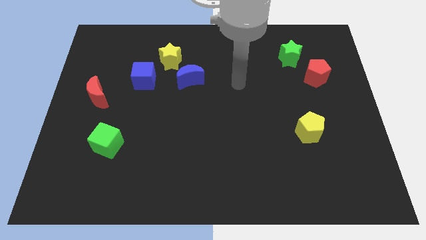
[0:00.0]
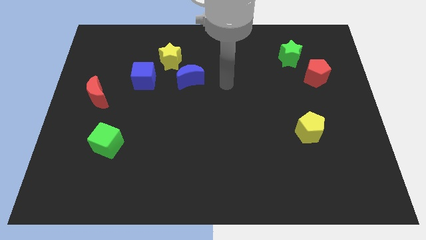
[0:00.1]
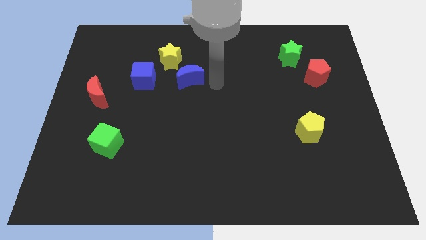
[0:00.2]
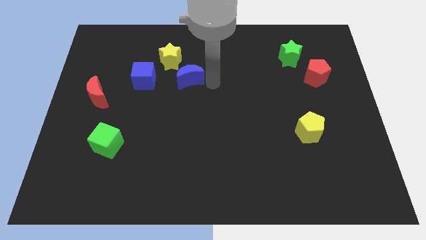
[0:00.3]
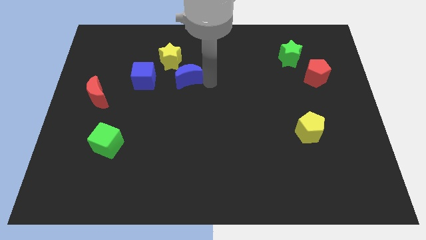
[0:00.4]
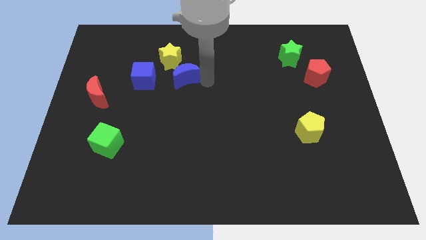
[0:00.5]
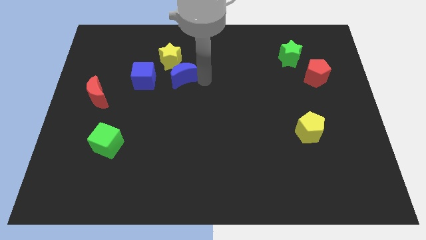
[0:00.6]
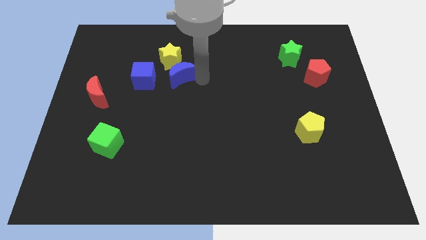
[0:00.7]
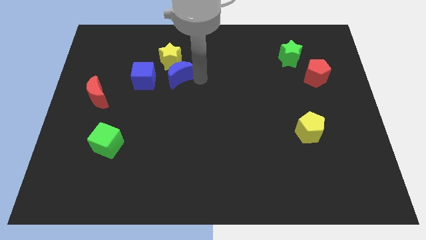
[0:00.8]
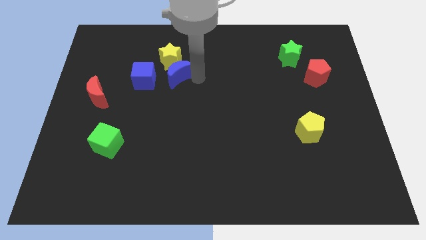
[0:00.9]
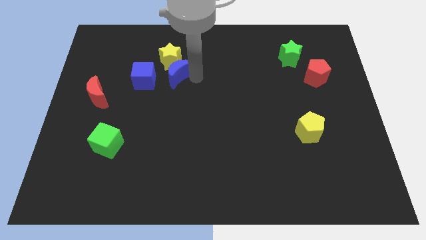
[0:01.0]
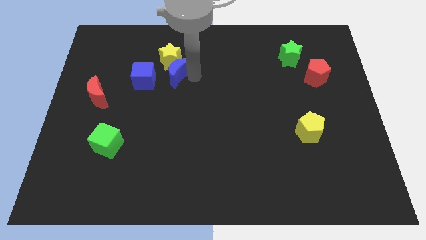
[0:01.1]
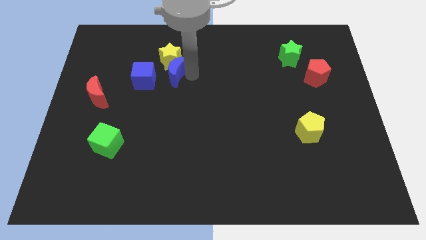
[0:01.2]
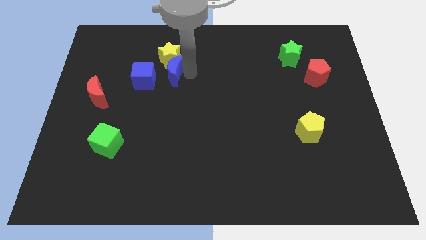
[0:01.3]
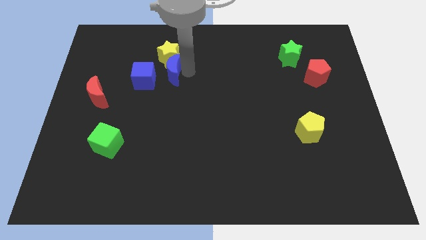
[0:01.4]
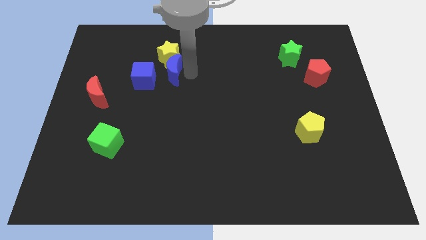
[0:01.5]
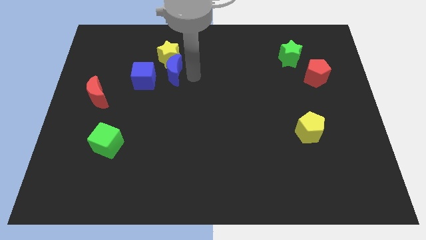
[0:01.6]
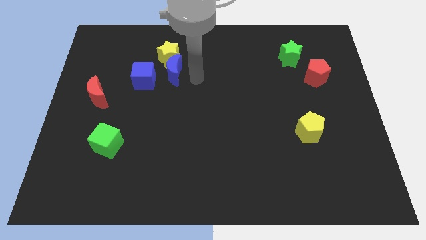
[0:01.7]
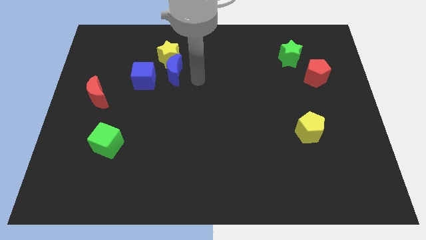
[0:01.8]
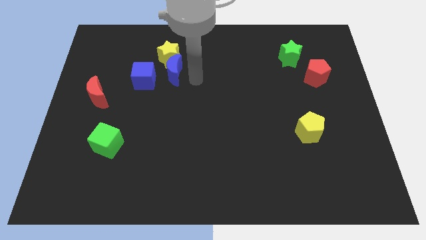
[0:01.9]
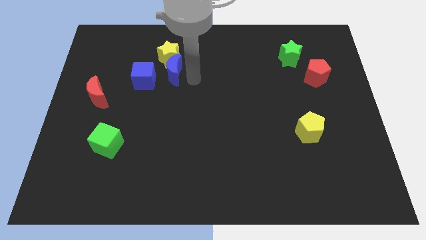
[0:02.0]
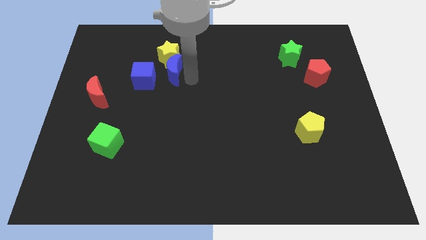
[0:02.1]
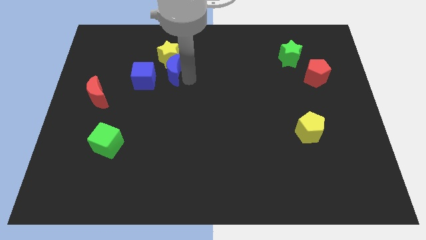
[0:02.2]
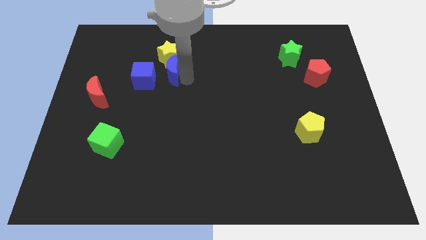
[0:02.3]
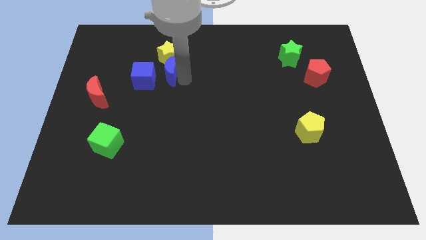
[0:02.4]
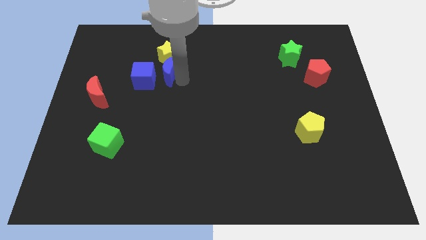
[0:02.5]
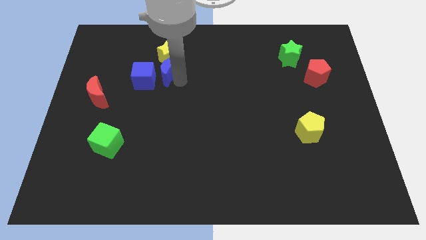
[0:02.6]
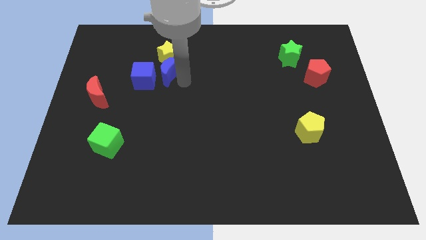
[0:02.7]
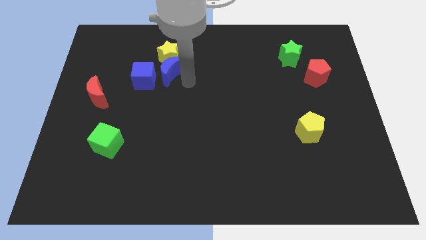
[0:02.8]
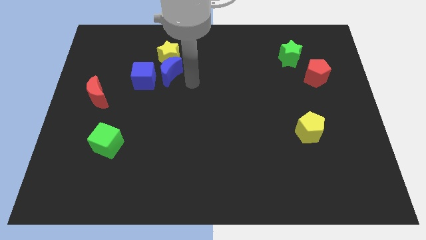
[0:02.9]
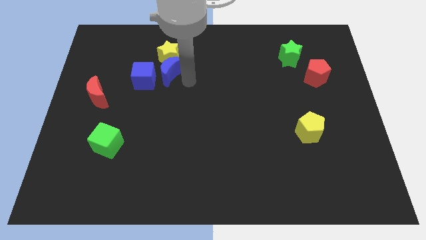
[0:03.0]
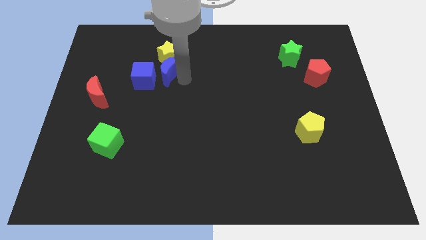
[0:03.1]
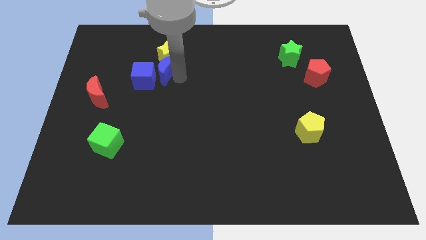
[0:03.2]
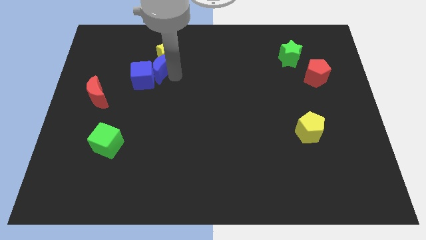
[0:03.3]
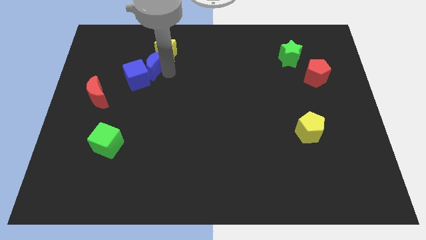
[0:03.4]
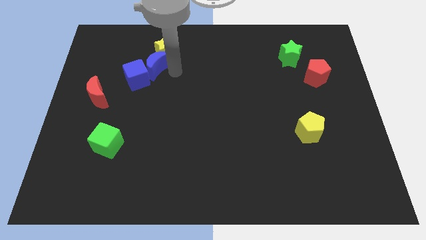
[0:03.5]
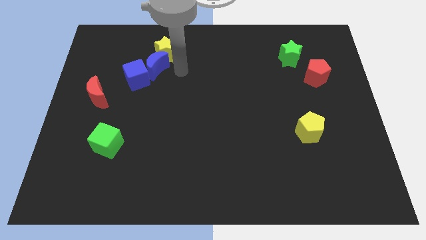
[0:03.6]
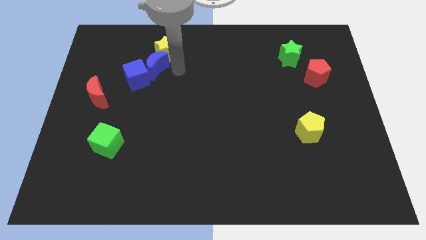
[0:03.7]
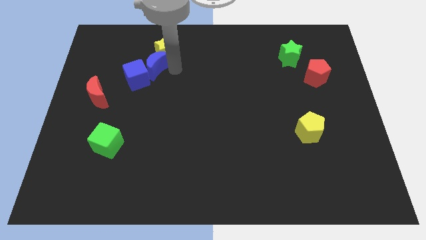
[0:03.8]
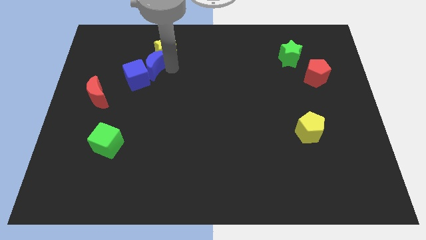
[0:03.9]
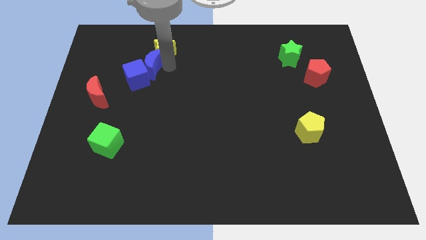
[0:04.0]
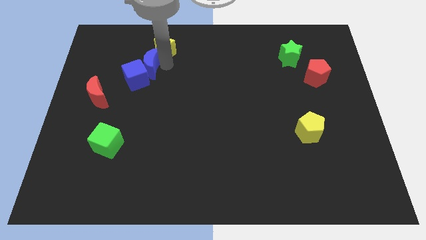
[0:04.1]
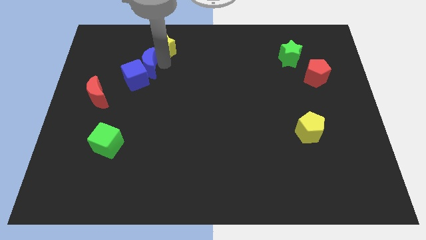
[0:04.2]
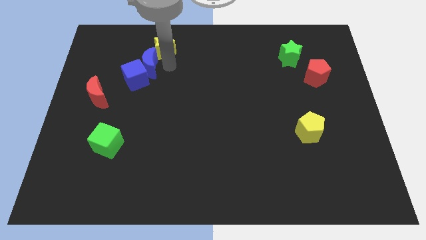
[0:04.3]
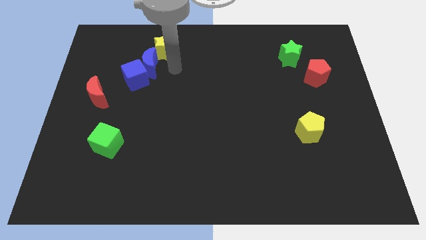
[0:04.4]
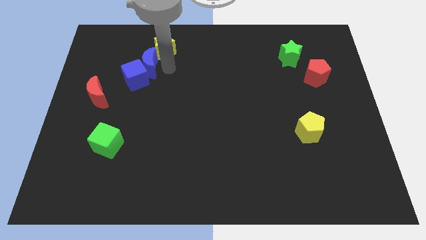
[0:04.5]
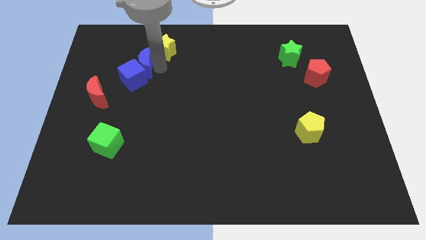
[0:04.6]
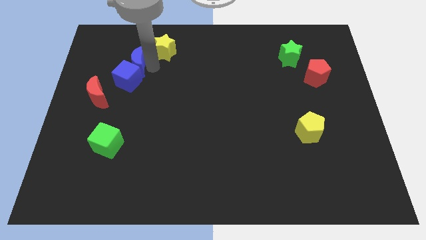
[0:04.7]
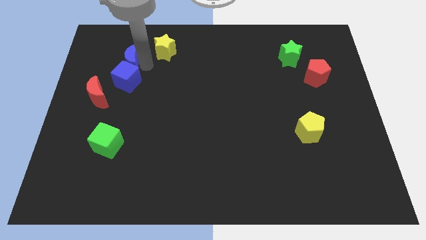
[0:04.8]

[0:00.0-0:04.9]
put the blue moon to the top left of the blue cube

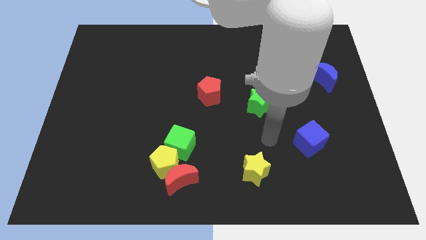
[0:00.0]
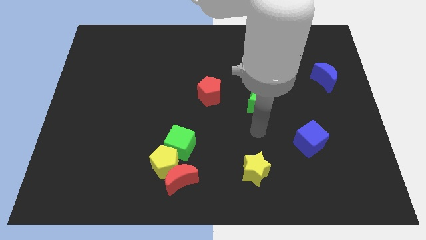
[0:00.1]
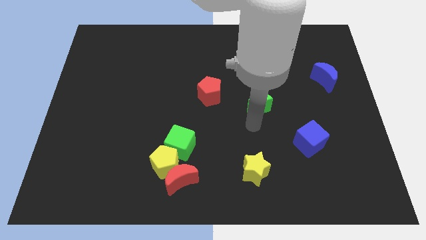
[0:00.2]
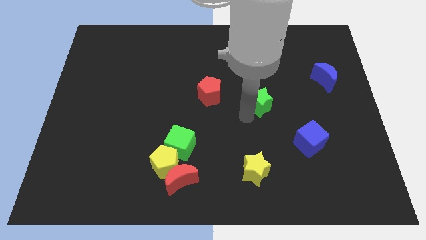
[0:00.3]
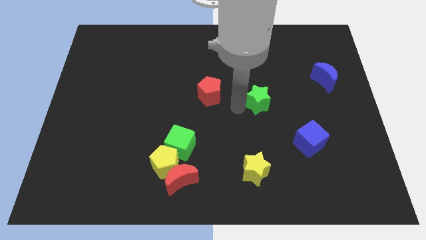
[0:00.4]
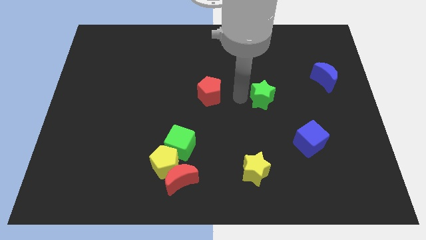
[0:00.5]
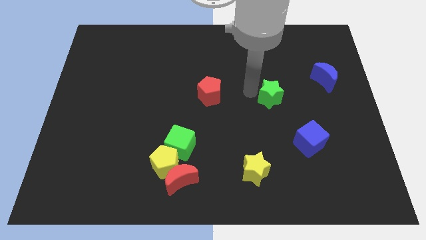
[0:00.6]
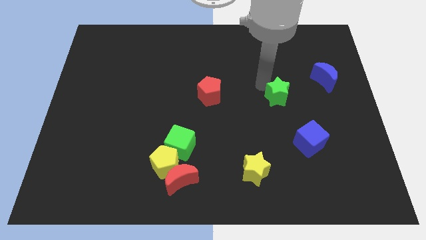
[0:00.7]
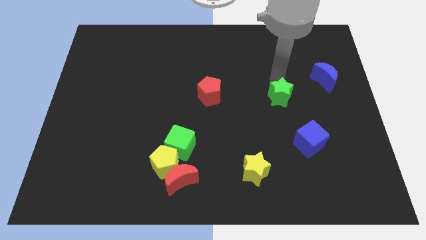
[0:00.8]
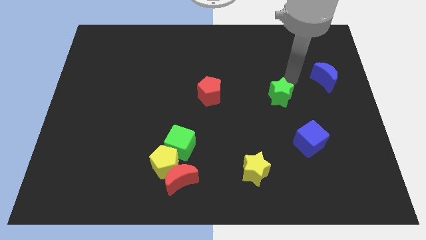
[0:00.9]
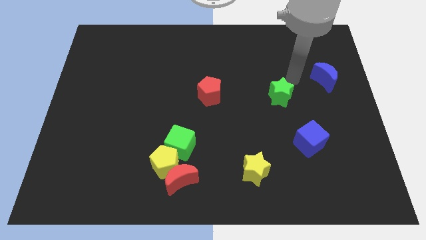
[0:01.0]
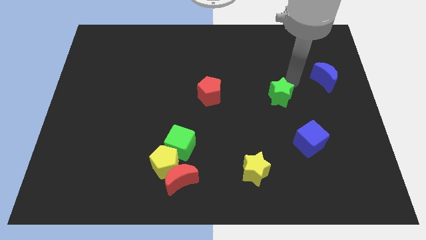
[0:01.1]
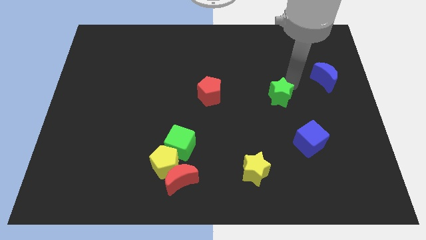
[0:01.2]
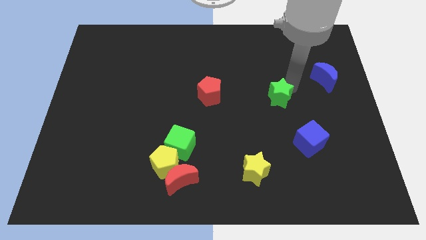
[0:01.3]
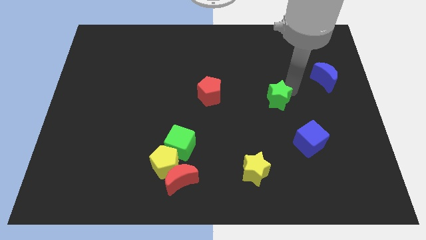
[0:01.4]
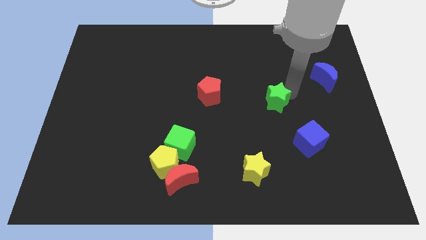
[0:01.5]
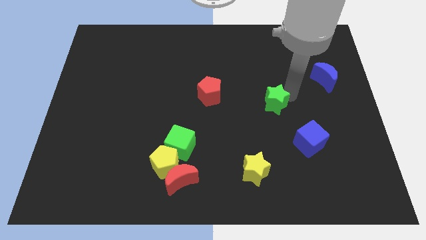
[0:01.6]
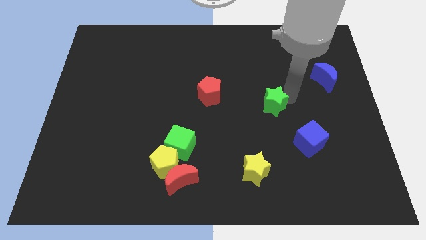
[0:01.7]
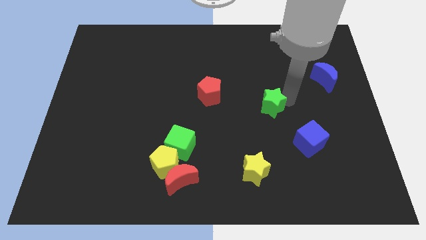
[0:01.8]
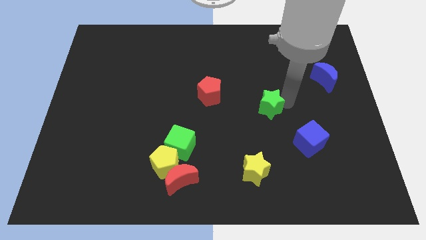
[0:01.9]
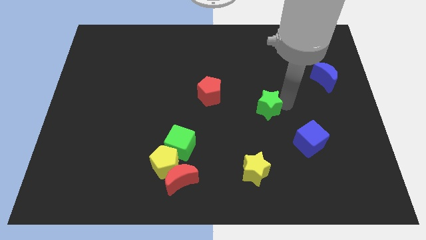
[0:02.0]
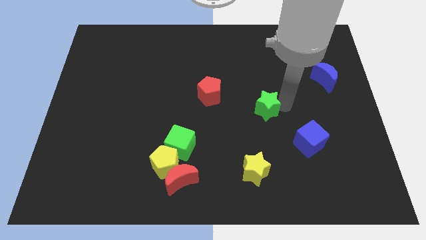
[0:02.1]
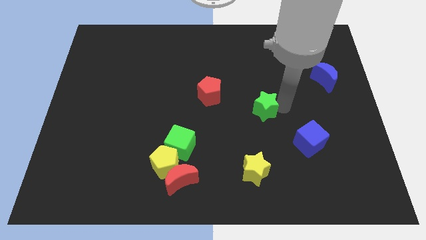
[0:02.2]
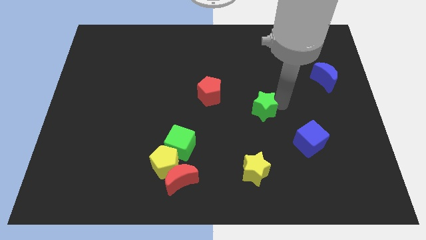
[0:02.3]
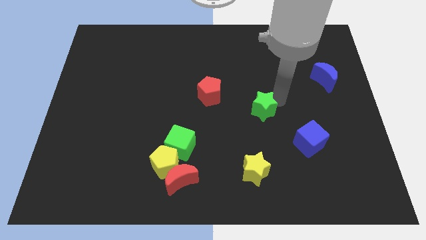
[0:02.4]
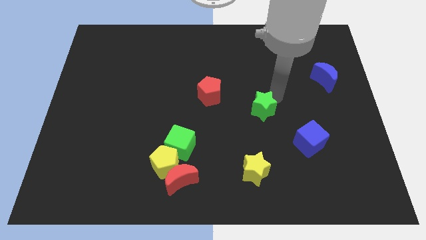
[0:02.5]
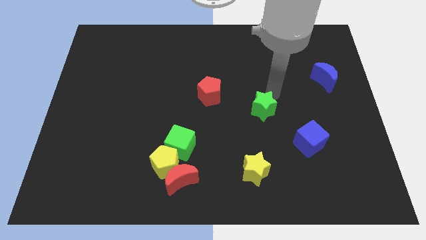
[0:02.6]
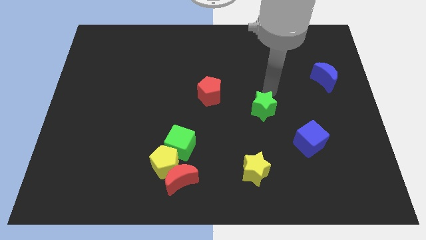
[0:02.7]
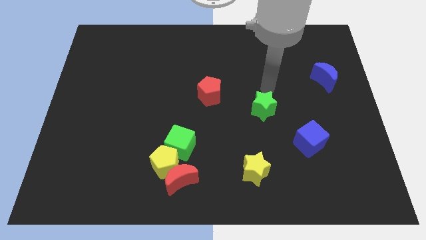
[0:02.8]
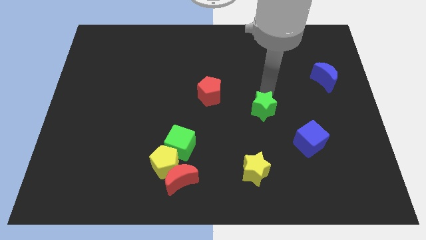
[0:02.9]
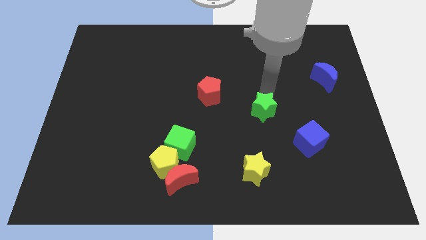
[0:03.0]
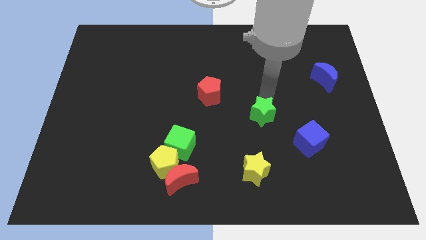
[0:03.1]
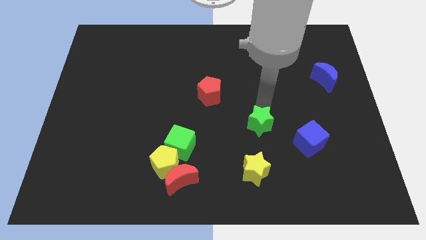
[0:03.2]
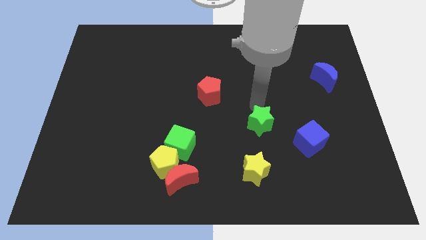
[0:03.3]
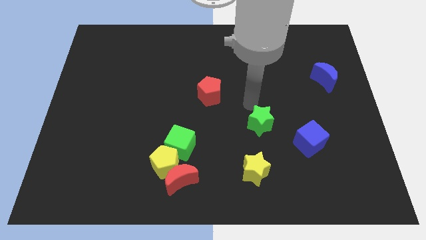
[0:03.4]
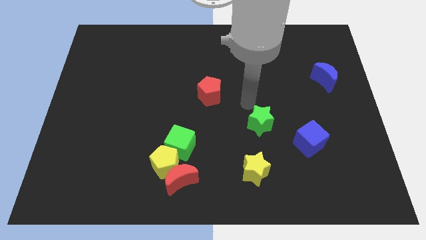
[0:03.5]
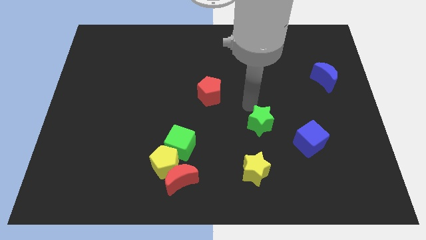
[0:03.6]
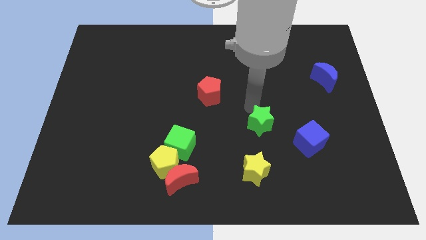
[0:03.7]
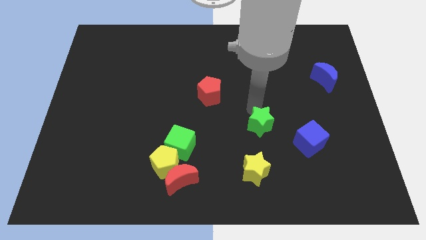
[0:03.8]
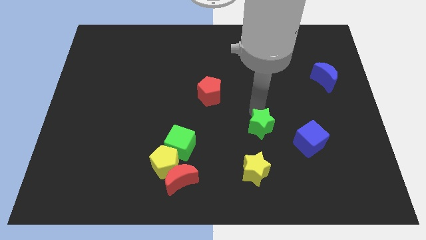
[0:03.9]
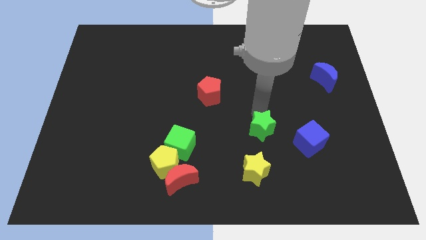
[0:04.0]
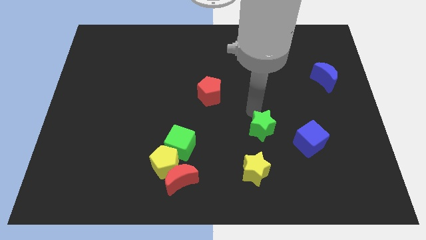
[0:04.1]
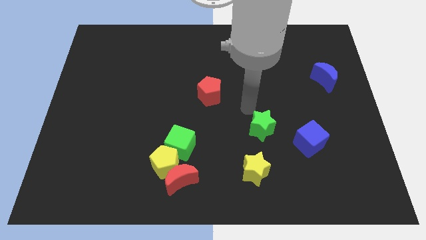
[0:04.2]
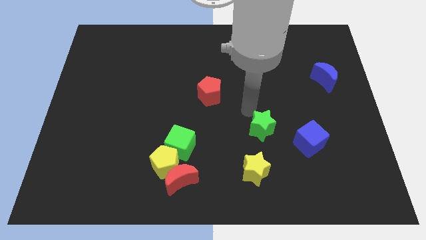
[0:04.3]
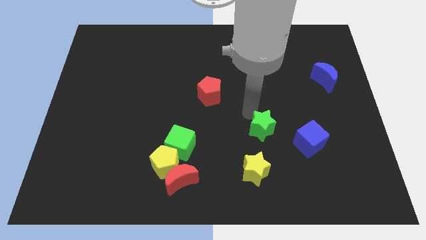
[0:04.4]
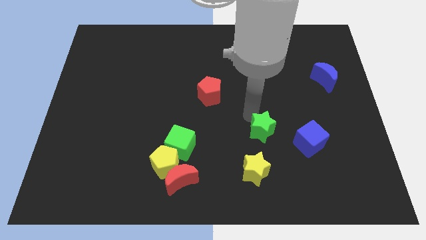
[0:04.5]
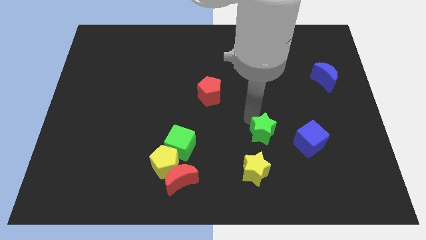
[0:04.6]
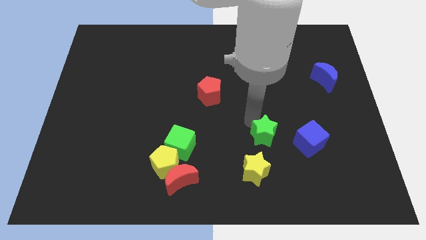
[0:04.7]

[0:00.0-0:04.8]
push the green star to the top right side of the yellow star
